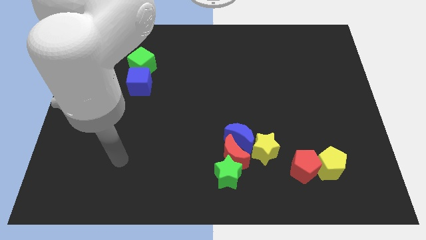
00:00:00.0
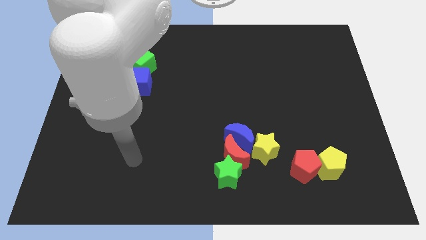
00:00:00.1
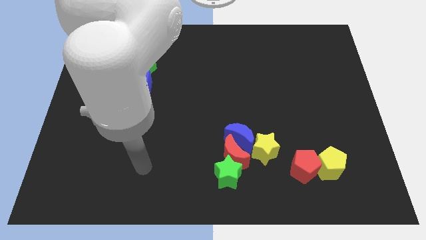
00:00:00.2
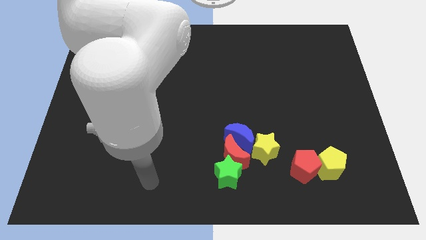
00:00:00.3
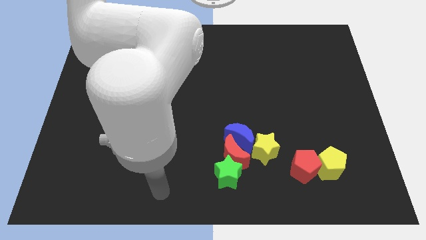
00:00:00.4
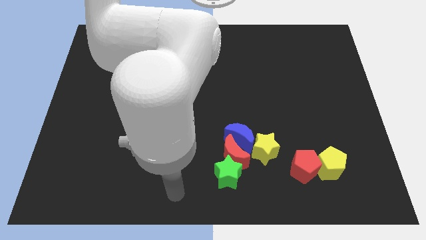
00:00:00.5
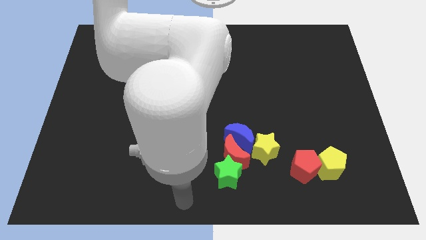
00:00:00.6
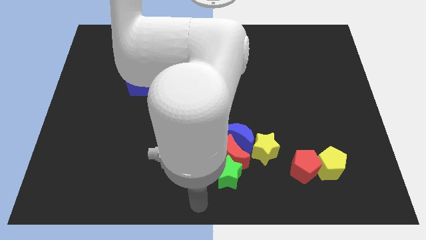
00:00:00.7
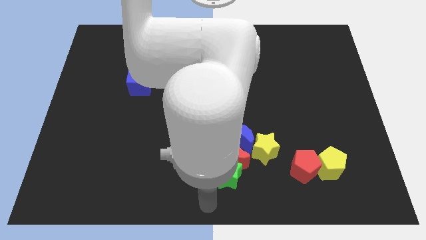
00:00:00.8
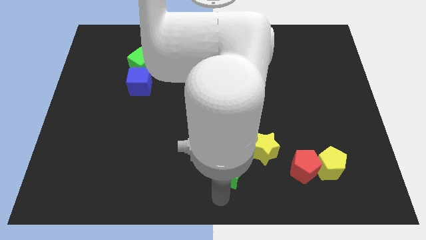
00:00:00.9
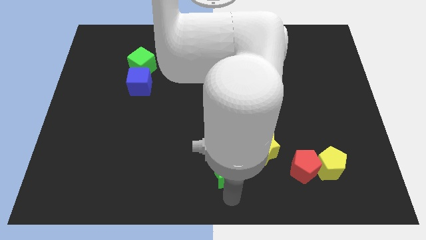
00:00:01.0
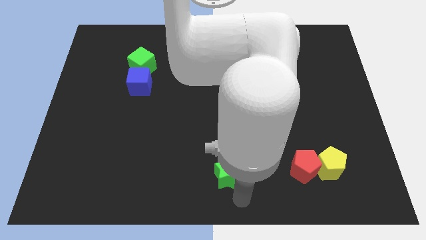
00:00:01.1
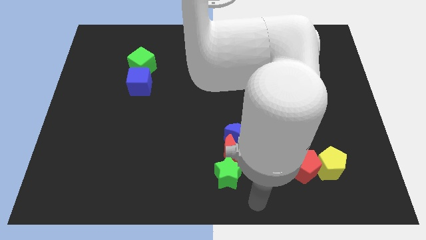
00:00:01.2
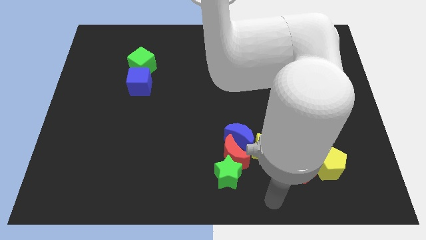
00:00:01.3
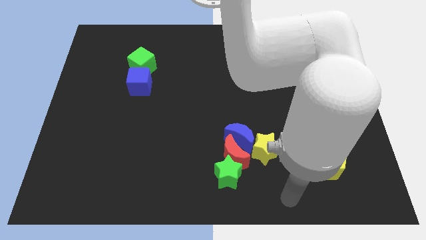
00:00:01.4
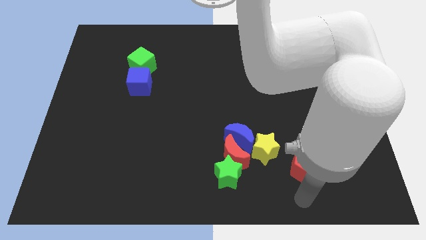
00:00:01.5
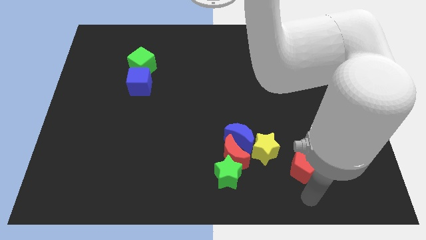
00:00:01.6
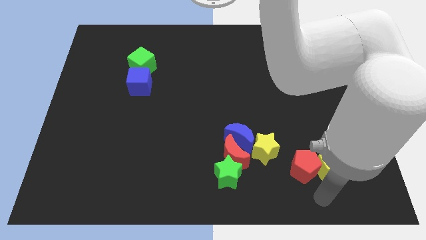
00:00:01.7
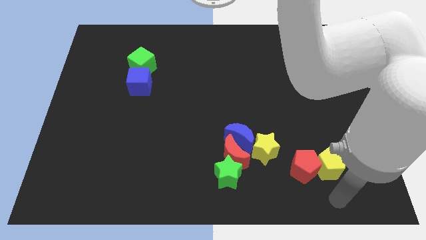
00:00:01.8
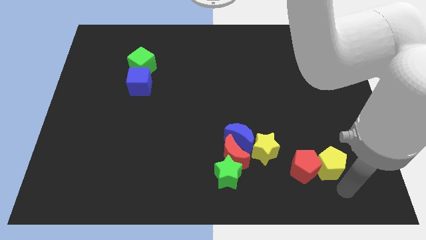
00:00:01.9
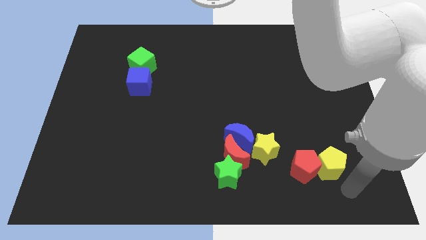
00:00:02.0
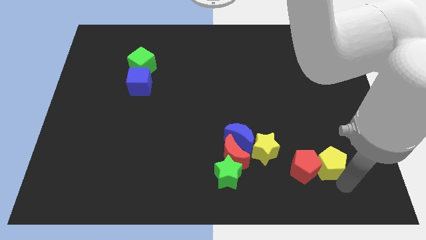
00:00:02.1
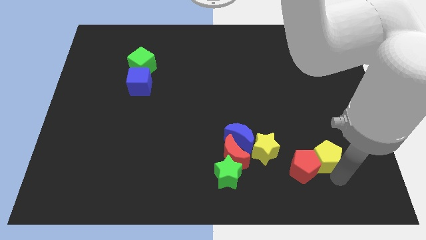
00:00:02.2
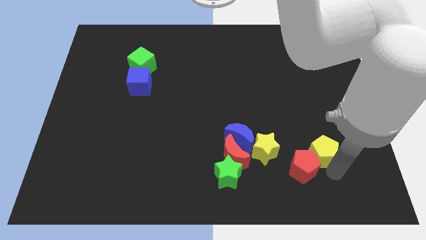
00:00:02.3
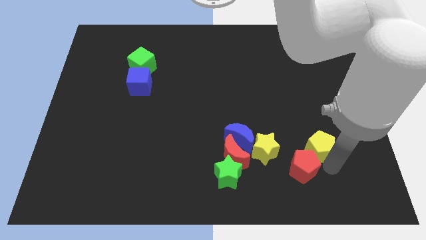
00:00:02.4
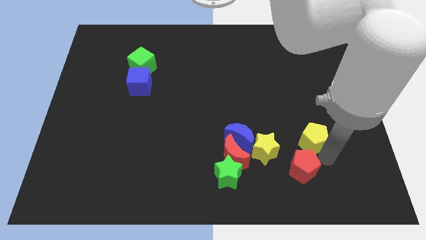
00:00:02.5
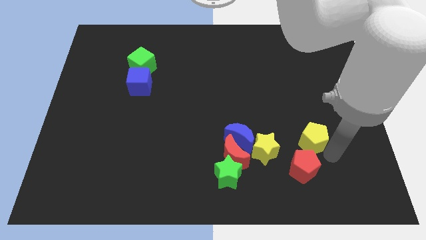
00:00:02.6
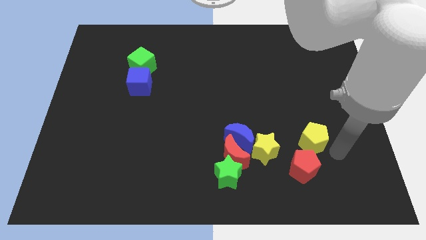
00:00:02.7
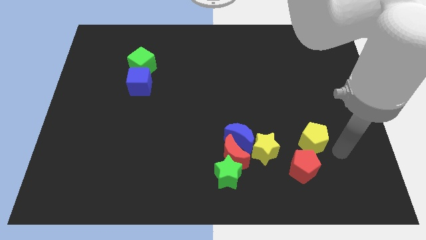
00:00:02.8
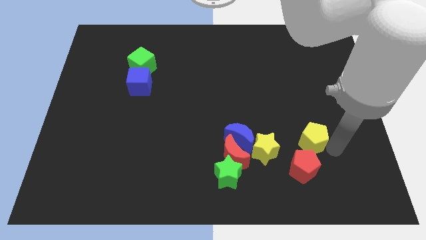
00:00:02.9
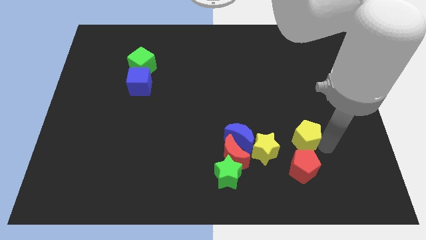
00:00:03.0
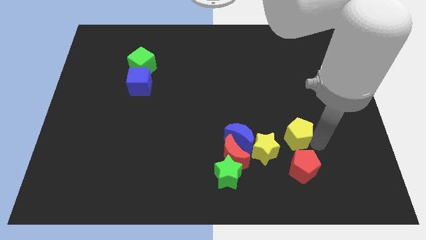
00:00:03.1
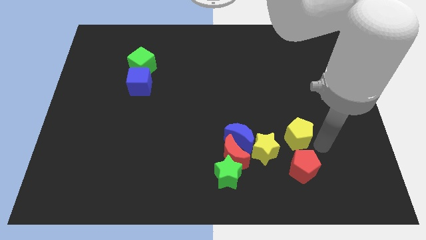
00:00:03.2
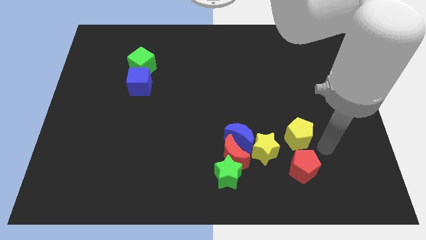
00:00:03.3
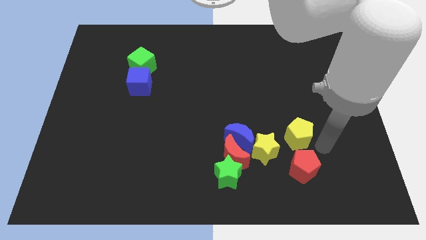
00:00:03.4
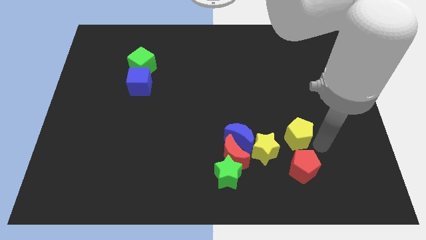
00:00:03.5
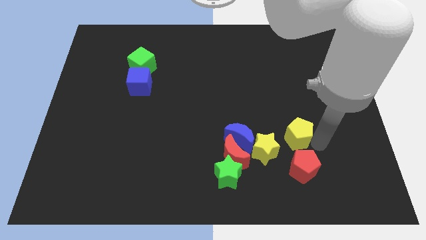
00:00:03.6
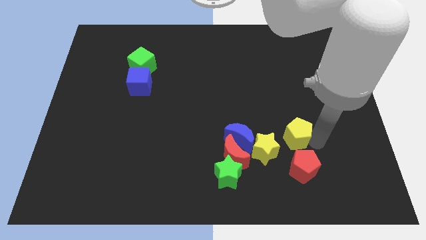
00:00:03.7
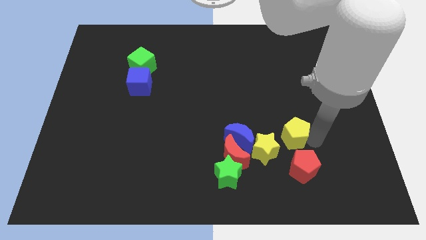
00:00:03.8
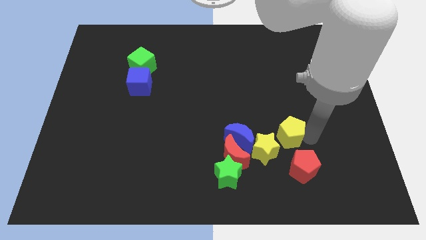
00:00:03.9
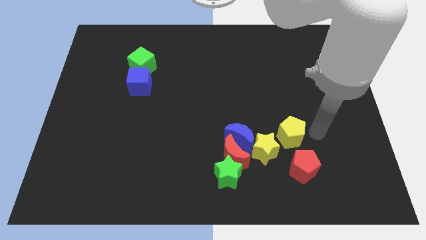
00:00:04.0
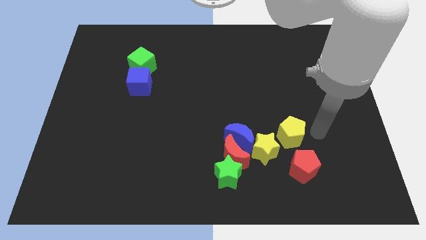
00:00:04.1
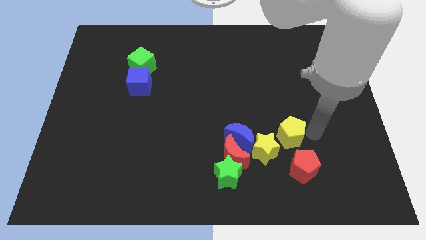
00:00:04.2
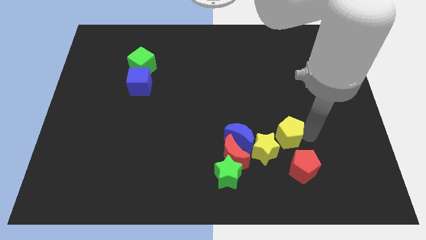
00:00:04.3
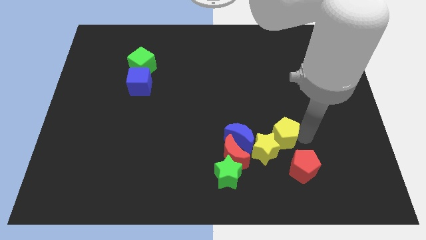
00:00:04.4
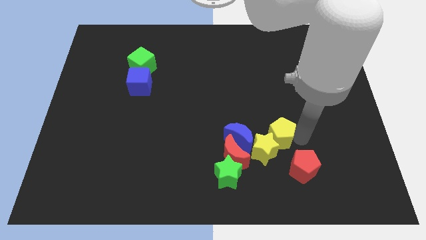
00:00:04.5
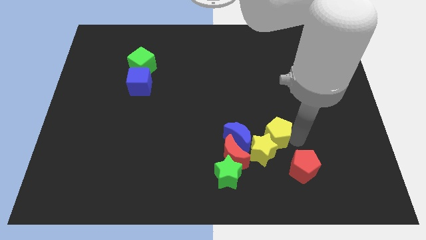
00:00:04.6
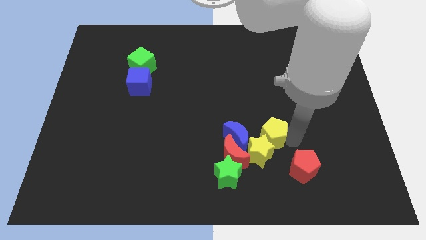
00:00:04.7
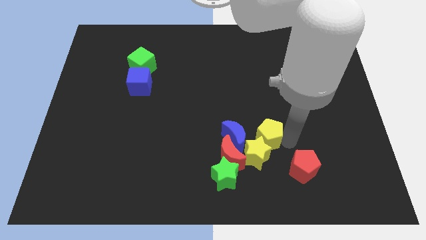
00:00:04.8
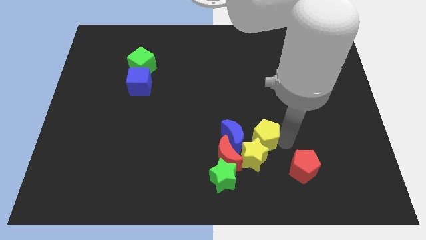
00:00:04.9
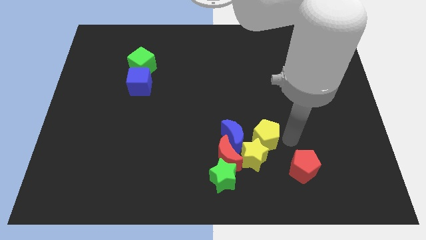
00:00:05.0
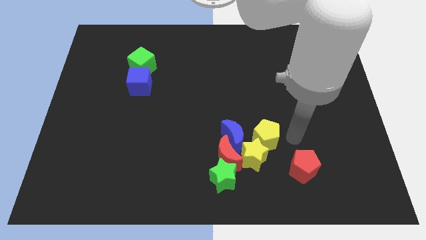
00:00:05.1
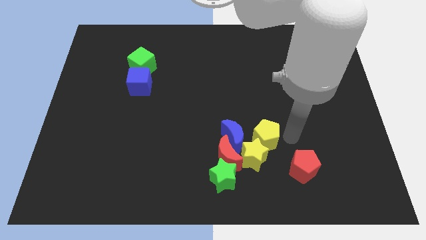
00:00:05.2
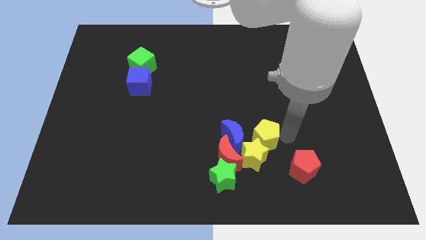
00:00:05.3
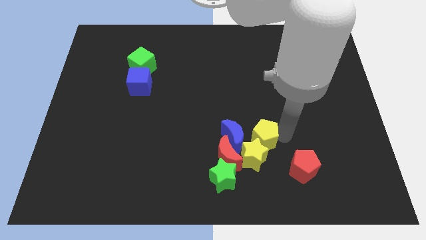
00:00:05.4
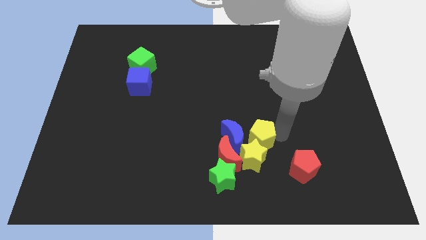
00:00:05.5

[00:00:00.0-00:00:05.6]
move the yellow pentagon to the blue moon

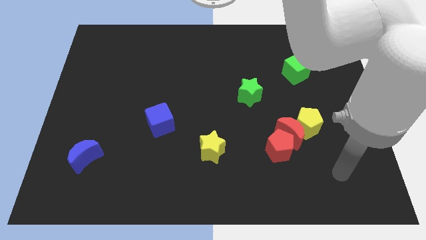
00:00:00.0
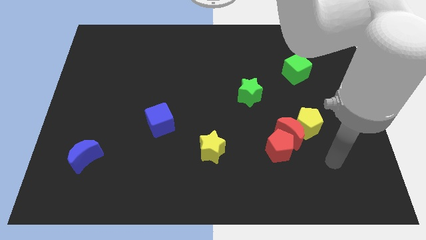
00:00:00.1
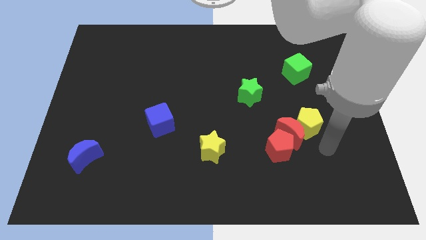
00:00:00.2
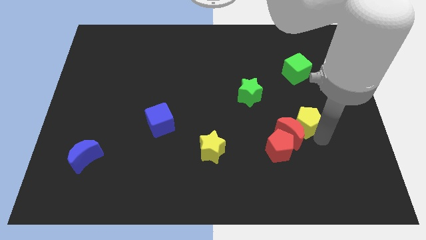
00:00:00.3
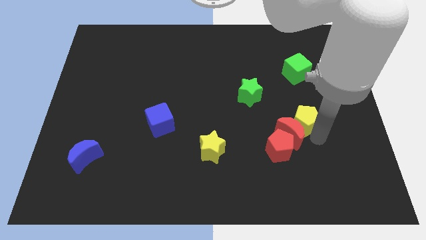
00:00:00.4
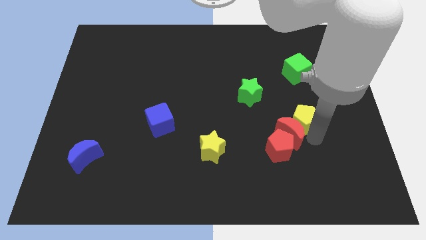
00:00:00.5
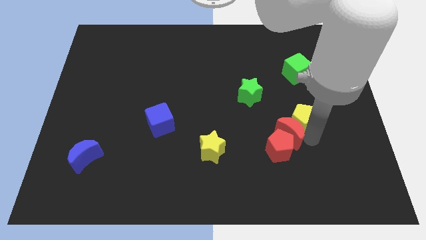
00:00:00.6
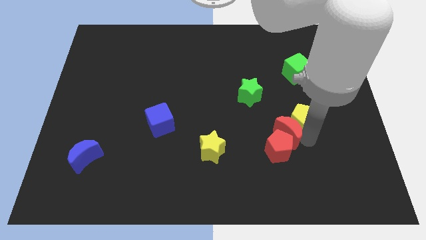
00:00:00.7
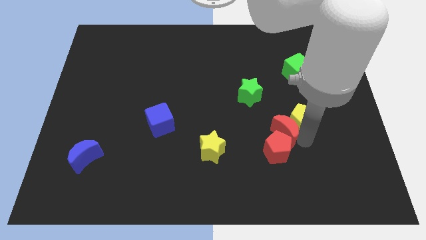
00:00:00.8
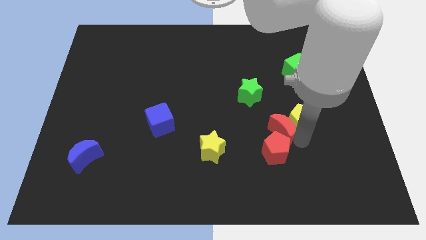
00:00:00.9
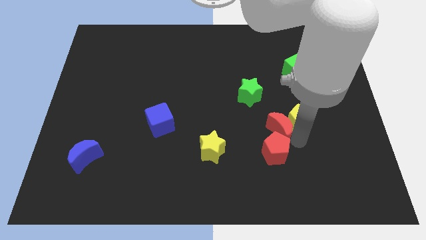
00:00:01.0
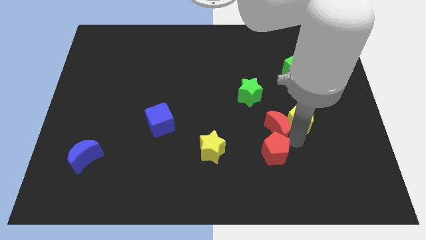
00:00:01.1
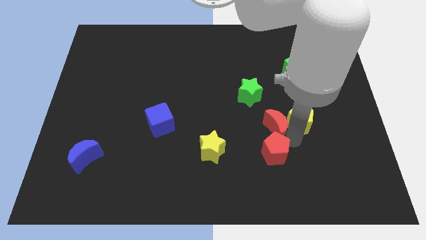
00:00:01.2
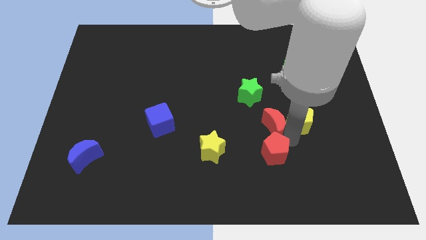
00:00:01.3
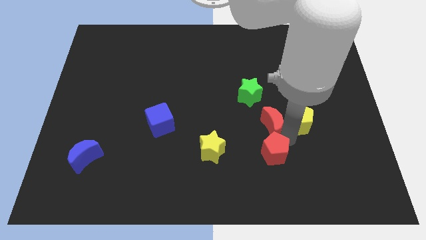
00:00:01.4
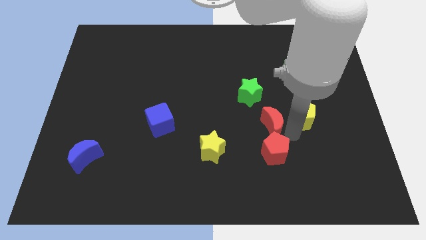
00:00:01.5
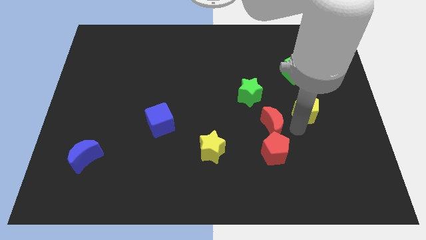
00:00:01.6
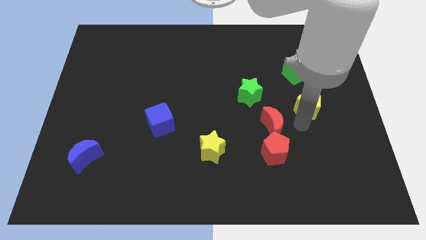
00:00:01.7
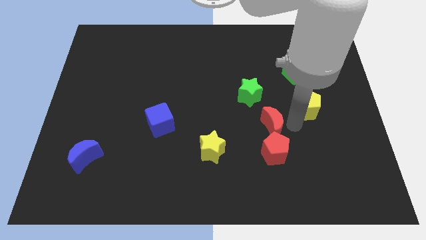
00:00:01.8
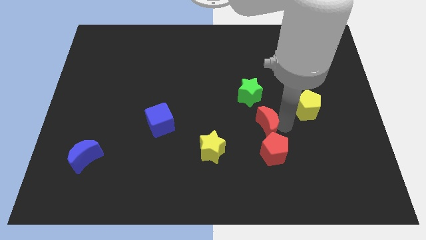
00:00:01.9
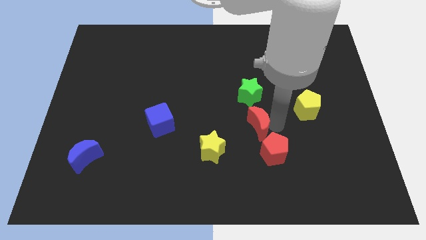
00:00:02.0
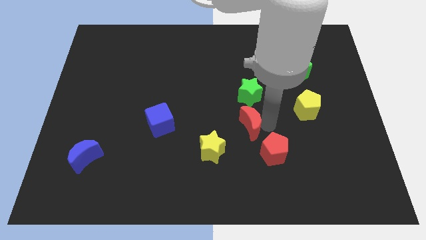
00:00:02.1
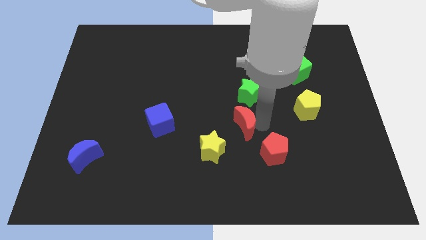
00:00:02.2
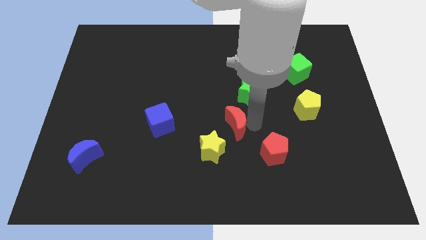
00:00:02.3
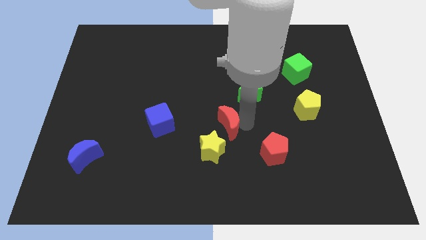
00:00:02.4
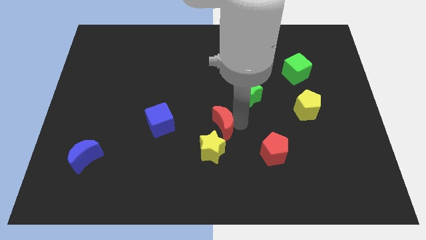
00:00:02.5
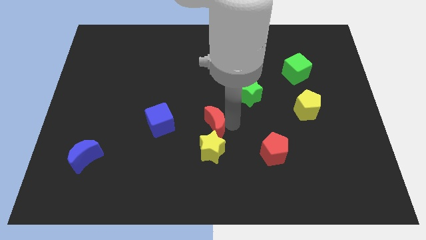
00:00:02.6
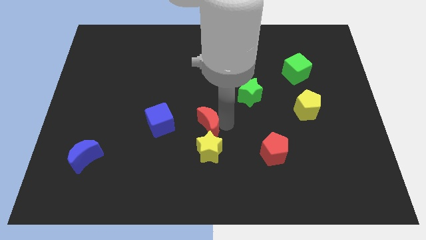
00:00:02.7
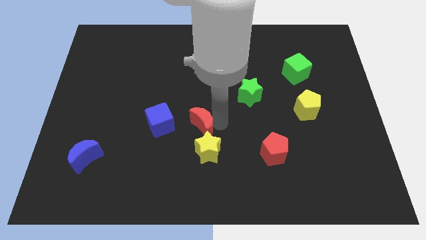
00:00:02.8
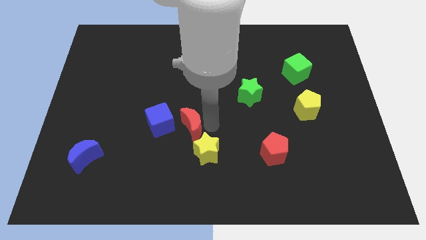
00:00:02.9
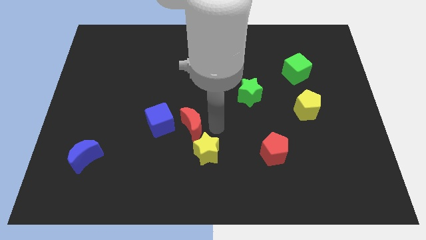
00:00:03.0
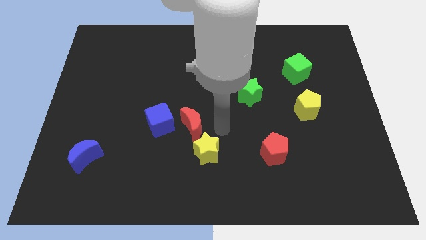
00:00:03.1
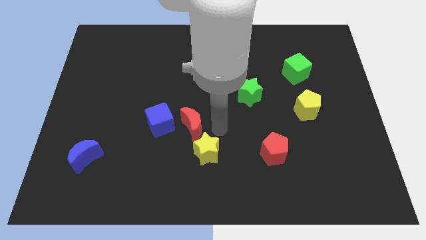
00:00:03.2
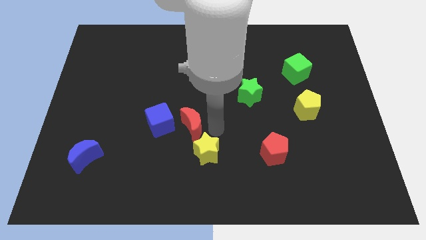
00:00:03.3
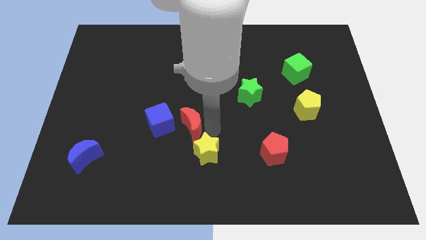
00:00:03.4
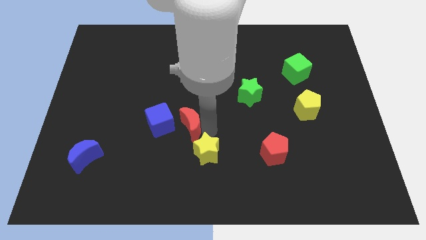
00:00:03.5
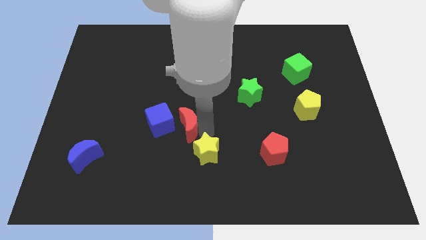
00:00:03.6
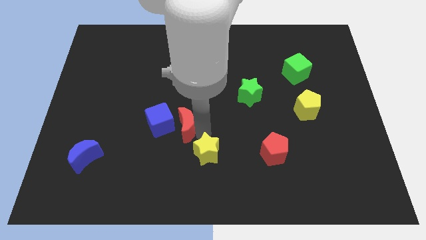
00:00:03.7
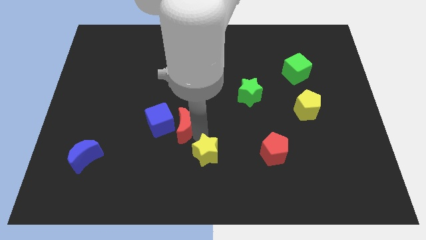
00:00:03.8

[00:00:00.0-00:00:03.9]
slide the red moon towards the blue cube
